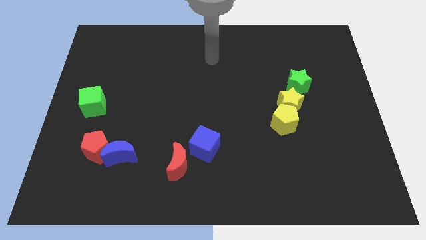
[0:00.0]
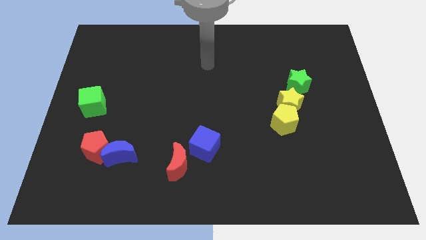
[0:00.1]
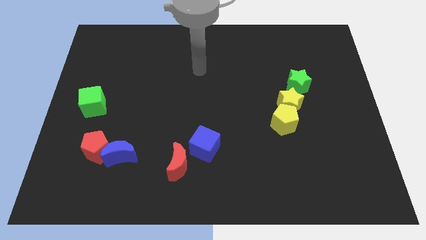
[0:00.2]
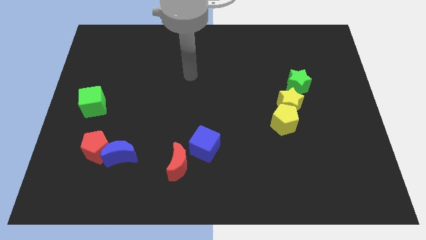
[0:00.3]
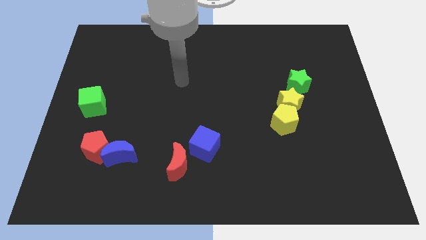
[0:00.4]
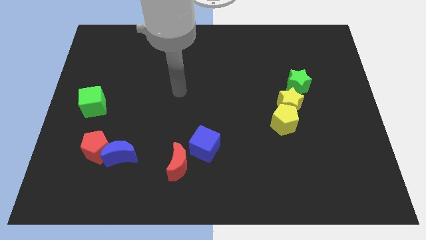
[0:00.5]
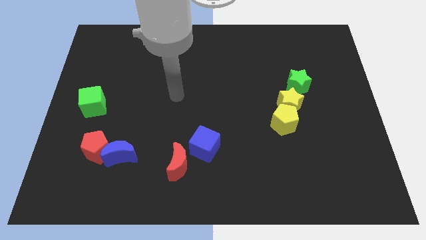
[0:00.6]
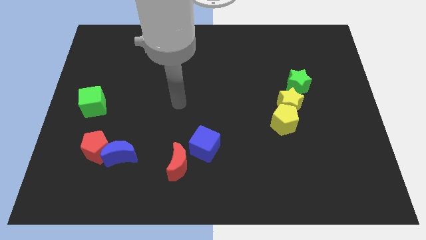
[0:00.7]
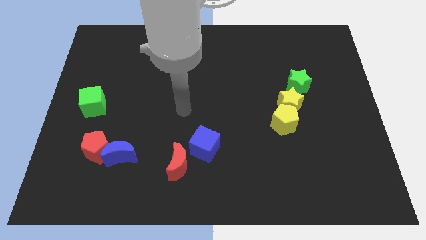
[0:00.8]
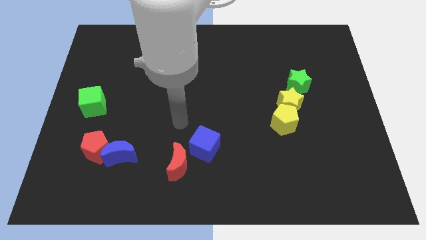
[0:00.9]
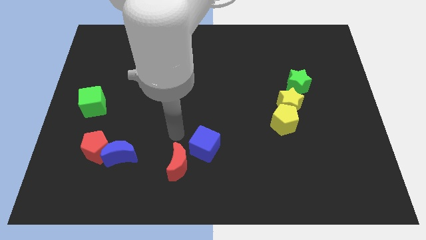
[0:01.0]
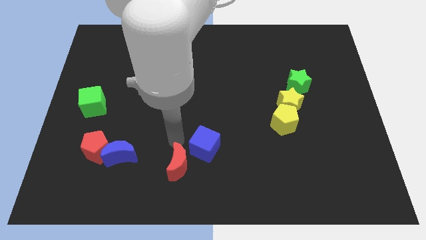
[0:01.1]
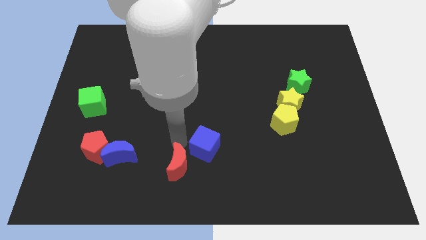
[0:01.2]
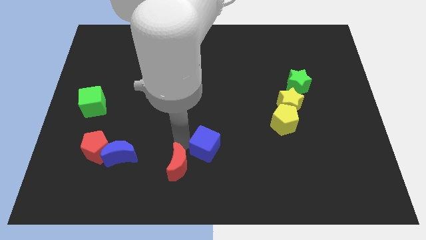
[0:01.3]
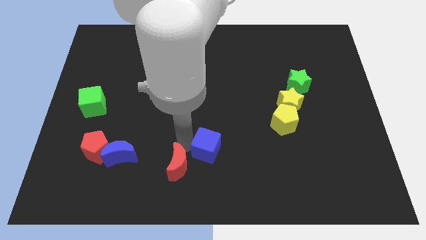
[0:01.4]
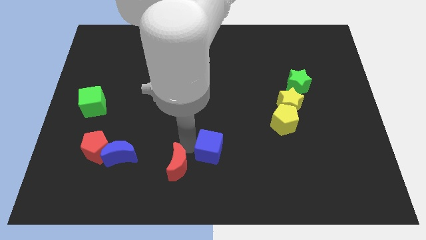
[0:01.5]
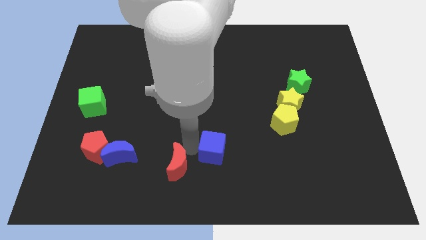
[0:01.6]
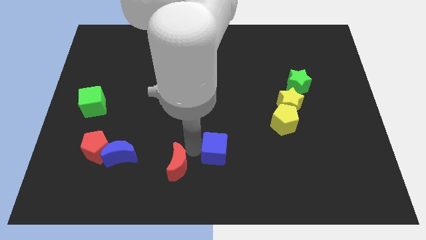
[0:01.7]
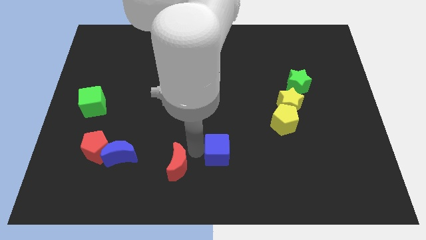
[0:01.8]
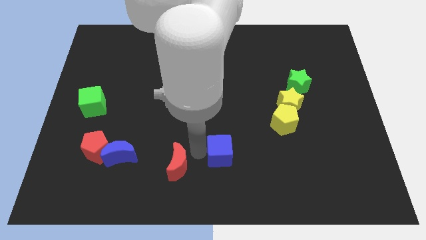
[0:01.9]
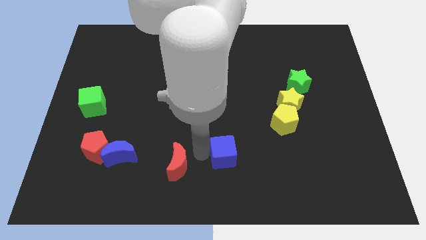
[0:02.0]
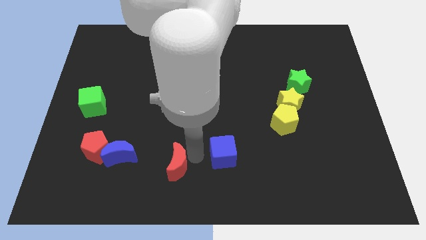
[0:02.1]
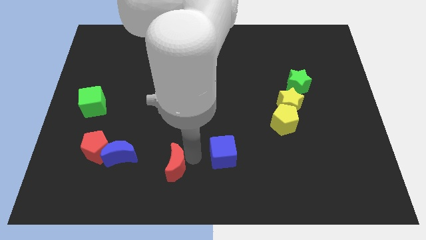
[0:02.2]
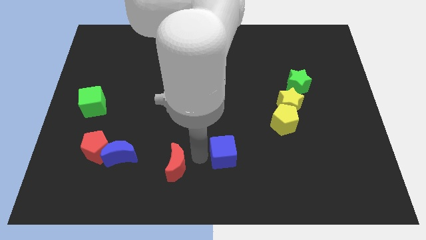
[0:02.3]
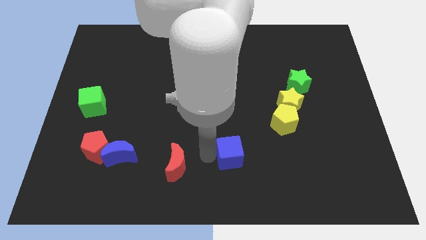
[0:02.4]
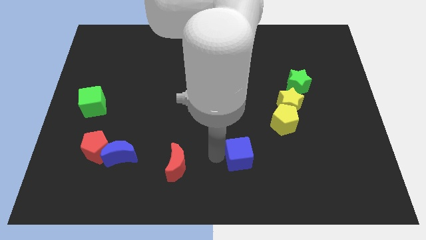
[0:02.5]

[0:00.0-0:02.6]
push the blue cube somewhat right

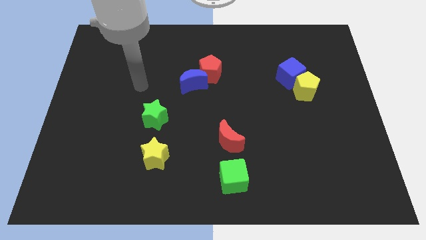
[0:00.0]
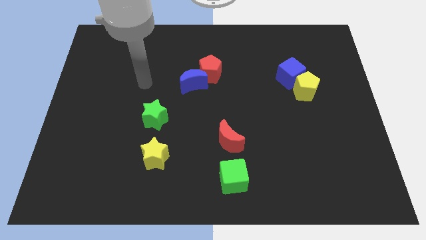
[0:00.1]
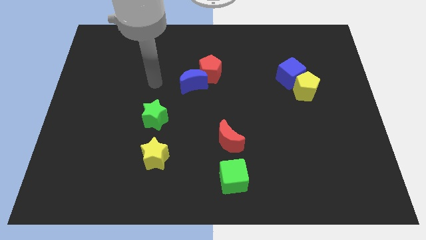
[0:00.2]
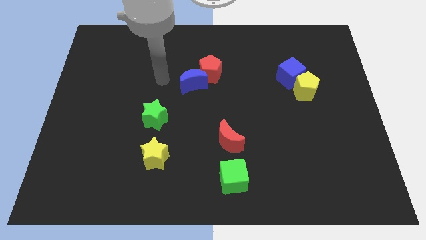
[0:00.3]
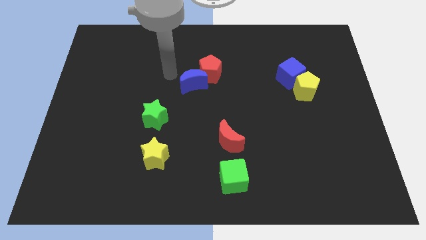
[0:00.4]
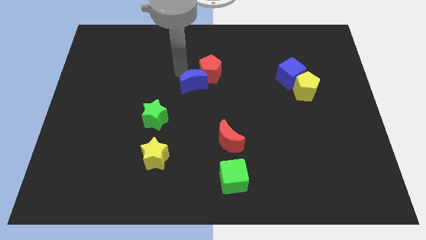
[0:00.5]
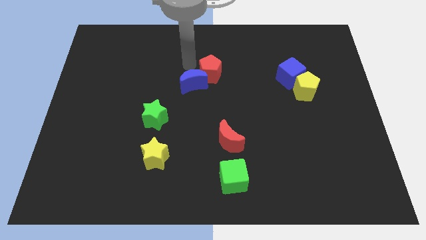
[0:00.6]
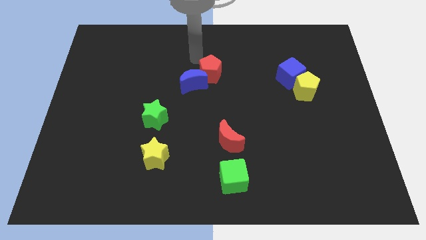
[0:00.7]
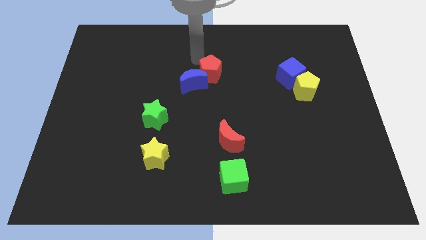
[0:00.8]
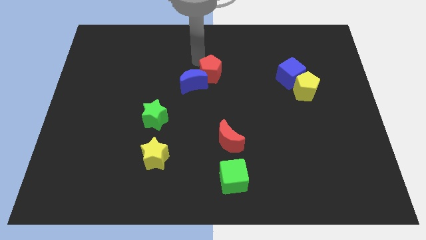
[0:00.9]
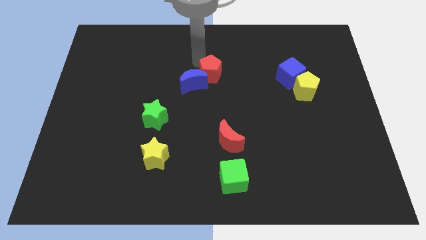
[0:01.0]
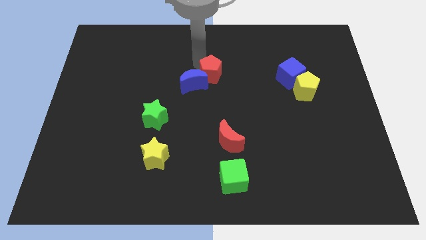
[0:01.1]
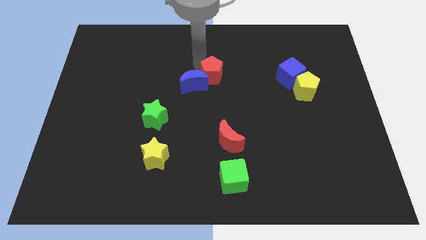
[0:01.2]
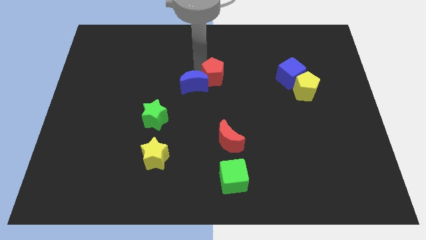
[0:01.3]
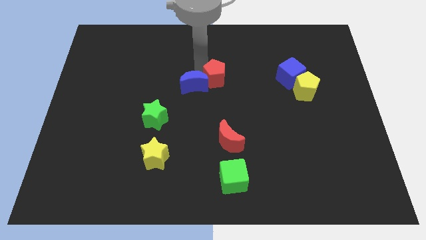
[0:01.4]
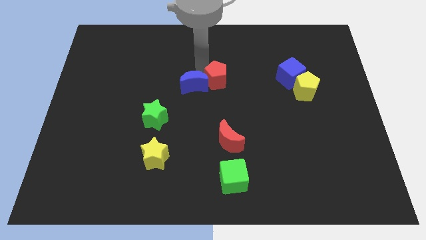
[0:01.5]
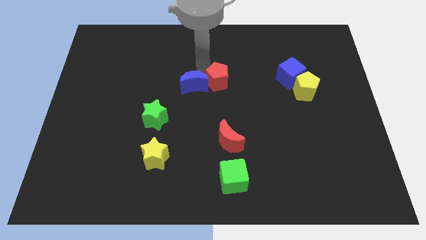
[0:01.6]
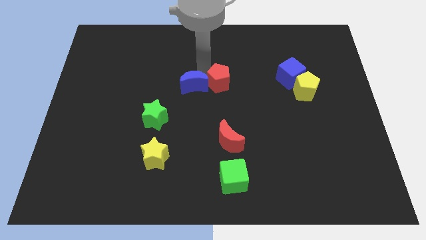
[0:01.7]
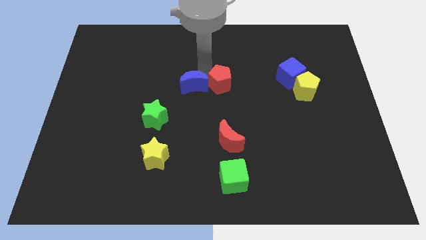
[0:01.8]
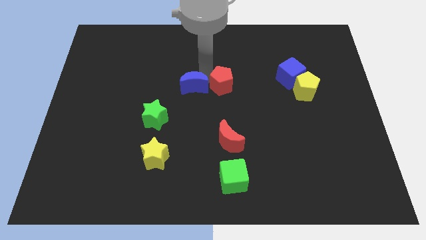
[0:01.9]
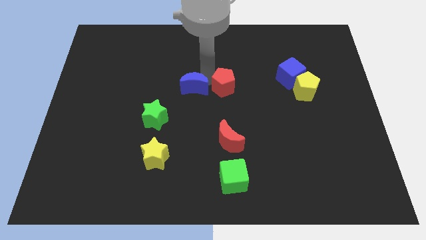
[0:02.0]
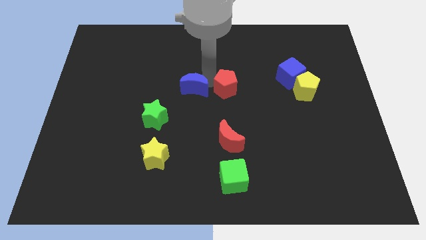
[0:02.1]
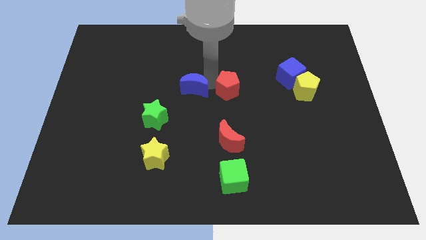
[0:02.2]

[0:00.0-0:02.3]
slightly move the red pentagon downwards and right

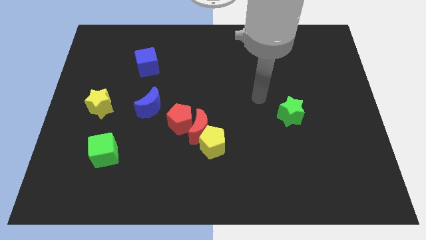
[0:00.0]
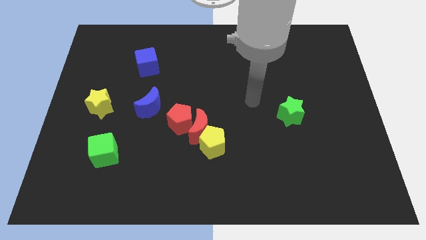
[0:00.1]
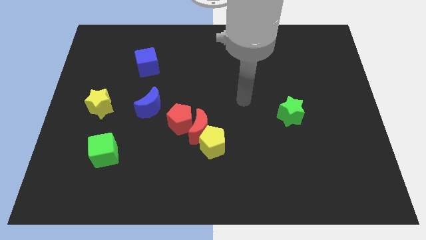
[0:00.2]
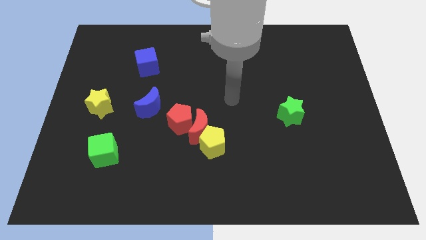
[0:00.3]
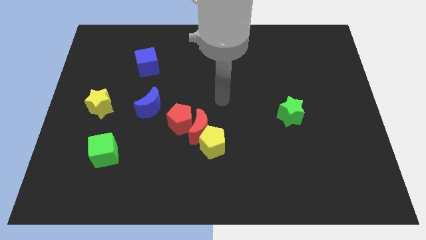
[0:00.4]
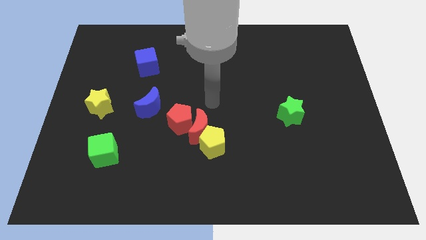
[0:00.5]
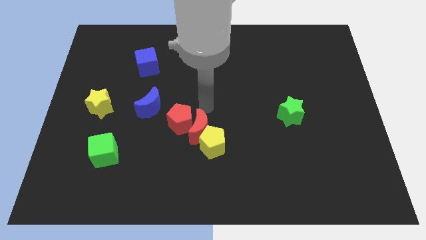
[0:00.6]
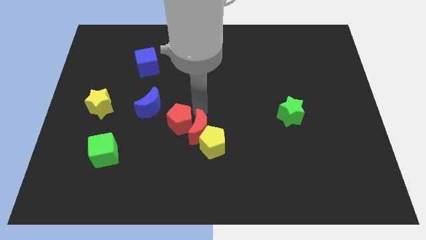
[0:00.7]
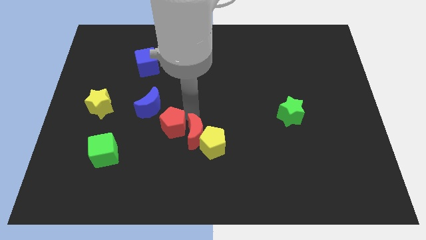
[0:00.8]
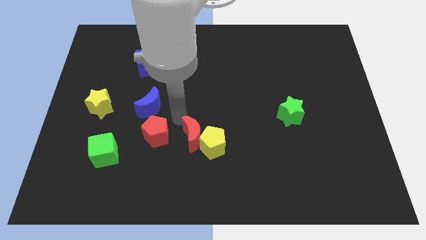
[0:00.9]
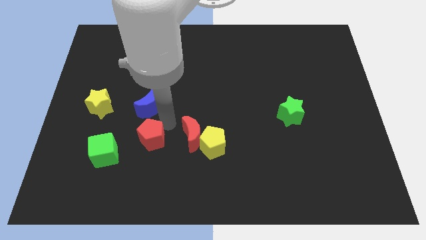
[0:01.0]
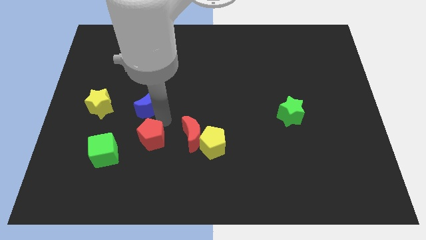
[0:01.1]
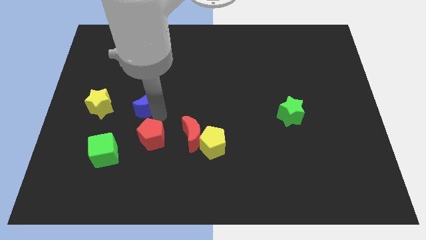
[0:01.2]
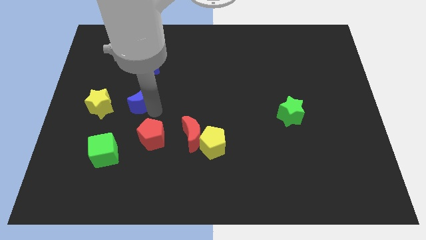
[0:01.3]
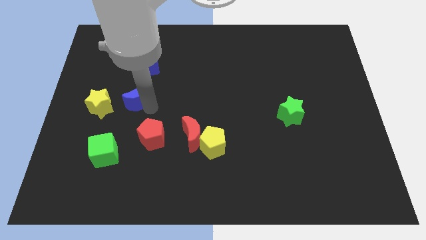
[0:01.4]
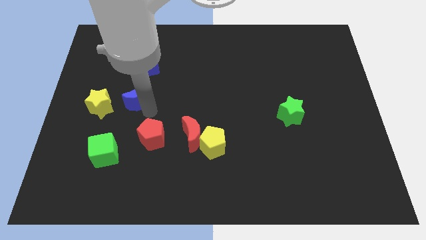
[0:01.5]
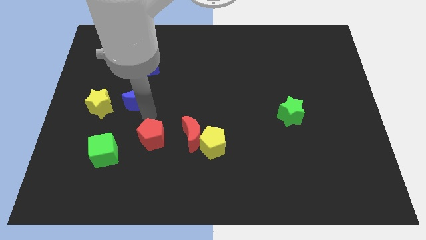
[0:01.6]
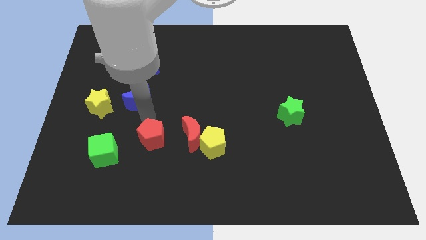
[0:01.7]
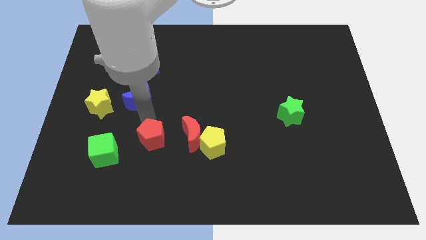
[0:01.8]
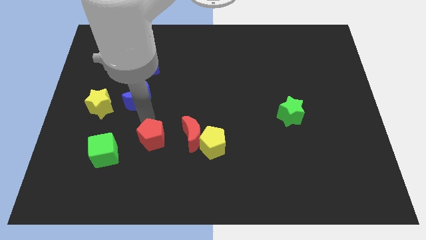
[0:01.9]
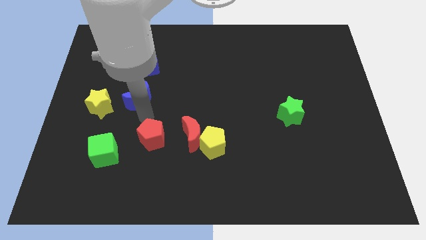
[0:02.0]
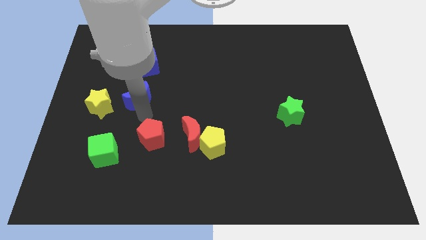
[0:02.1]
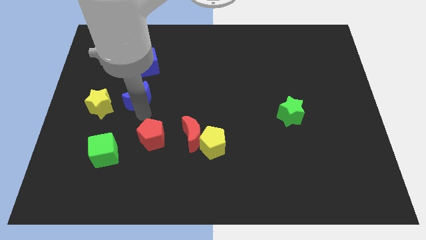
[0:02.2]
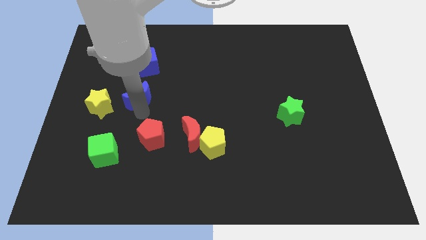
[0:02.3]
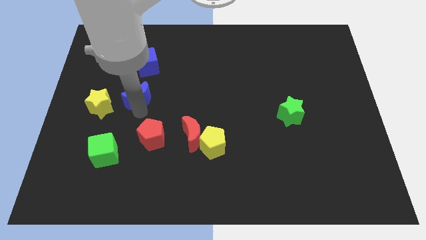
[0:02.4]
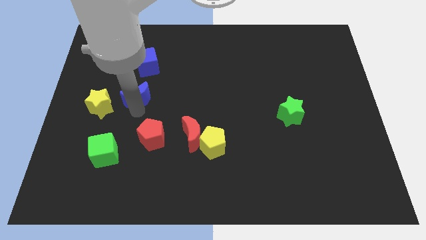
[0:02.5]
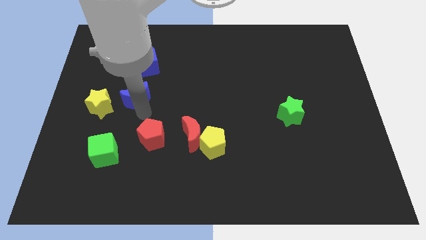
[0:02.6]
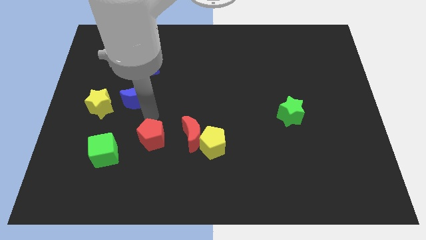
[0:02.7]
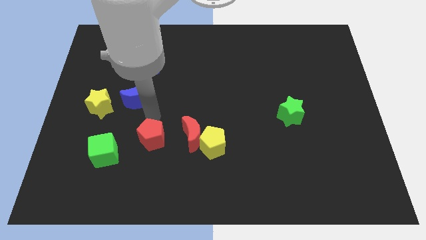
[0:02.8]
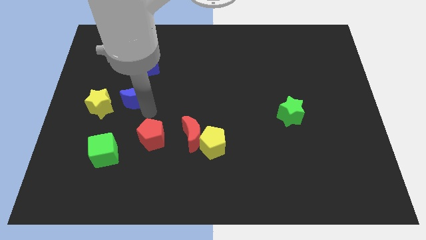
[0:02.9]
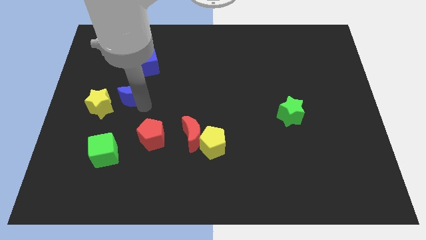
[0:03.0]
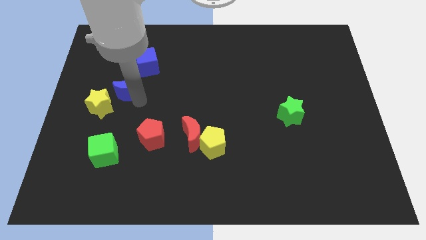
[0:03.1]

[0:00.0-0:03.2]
move the blue moon upwards and to the left diagonally a little
